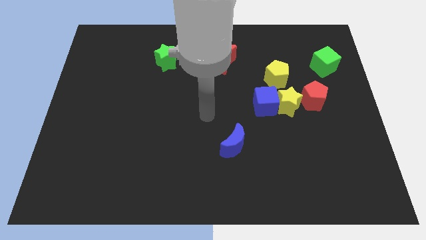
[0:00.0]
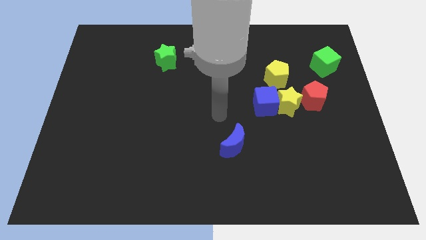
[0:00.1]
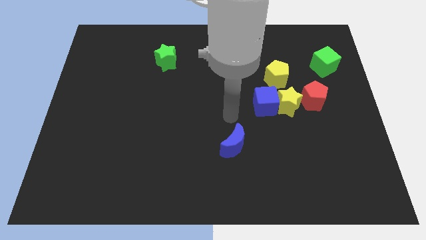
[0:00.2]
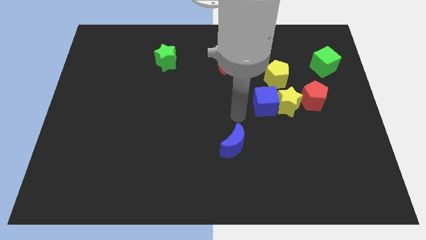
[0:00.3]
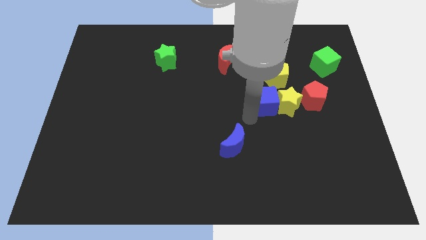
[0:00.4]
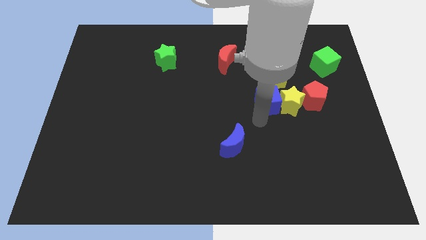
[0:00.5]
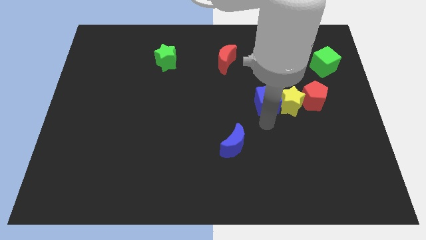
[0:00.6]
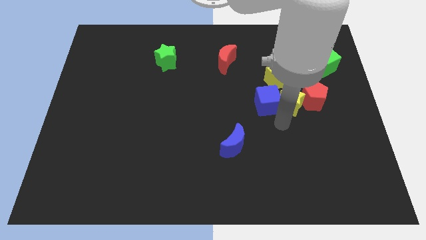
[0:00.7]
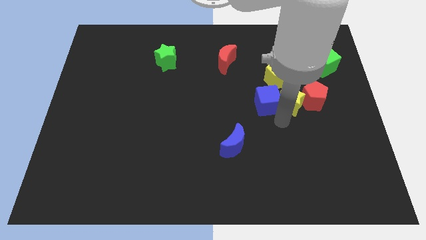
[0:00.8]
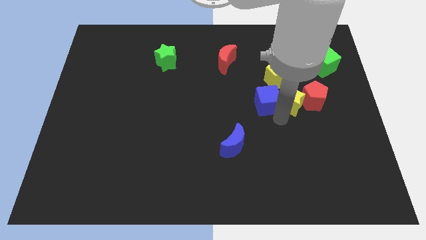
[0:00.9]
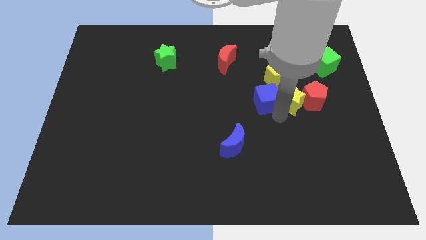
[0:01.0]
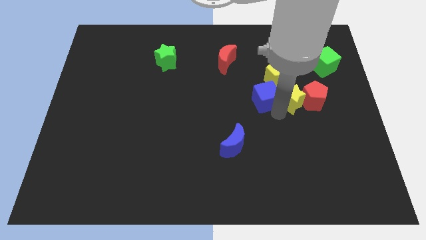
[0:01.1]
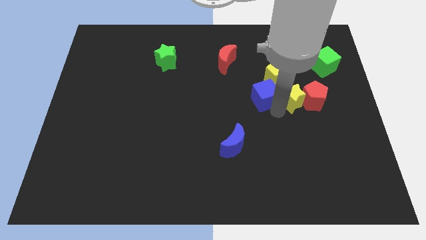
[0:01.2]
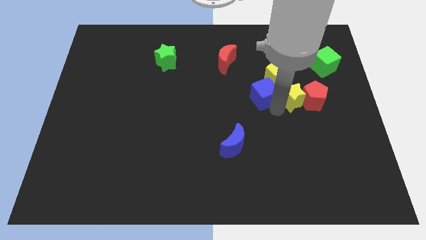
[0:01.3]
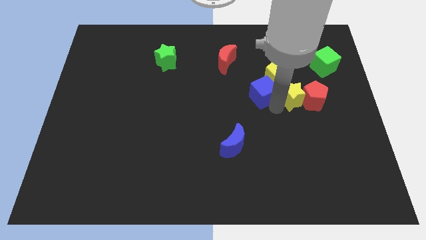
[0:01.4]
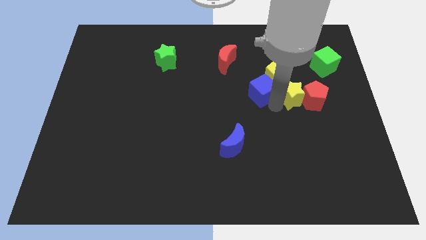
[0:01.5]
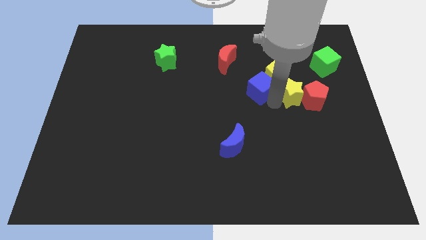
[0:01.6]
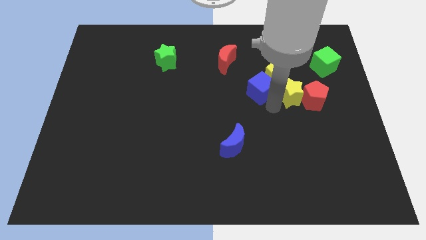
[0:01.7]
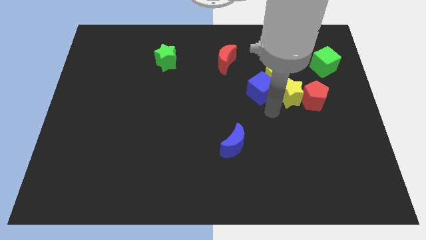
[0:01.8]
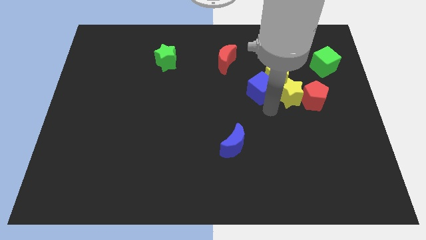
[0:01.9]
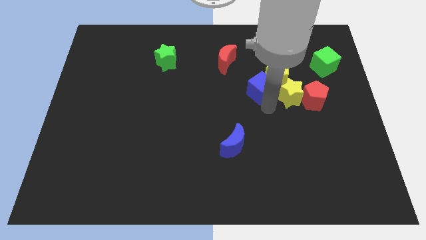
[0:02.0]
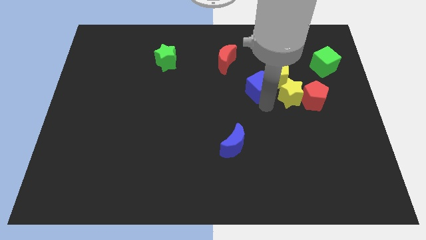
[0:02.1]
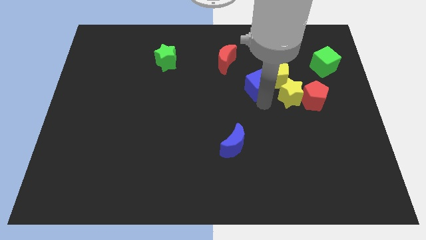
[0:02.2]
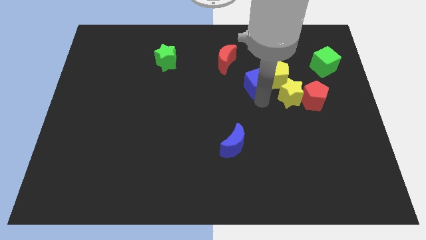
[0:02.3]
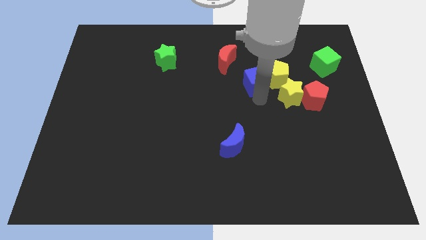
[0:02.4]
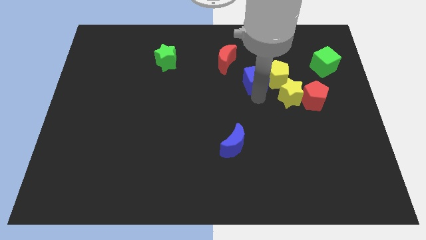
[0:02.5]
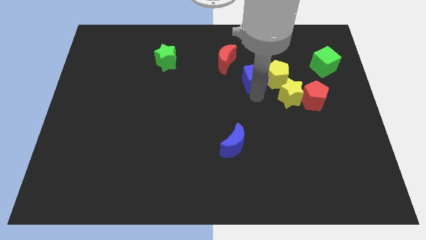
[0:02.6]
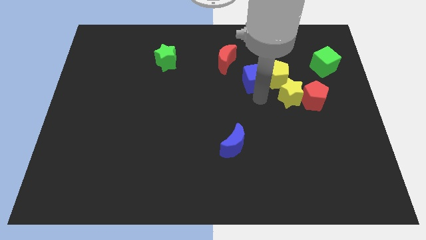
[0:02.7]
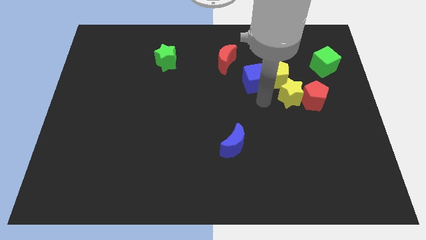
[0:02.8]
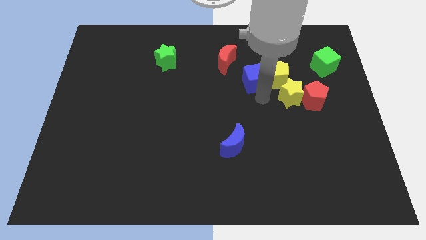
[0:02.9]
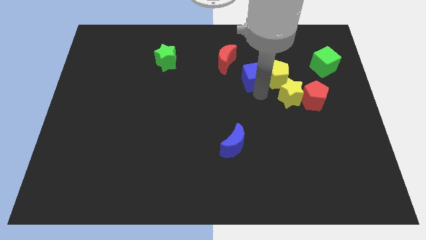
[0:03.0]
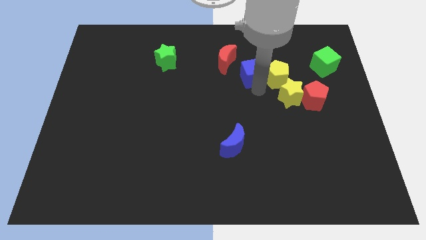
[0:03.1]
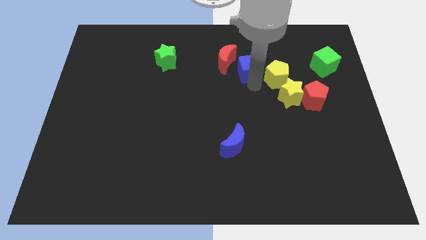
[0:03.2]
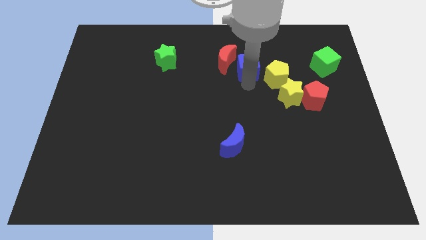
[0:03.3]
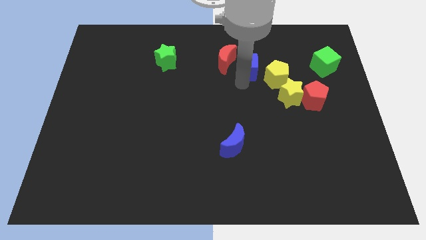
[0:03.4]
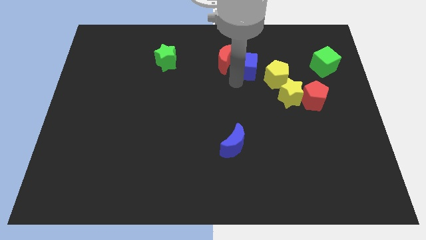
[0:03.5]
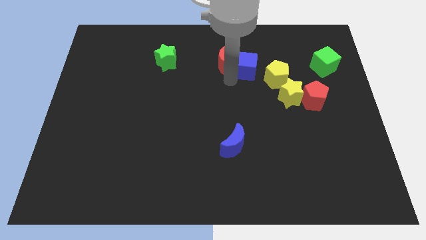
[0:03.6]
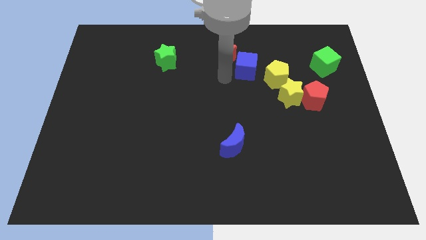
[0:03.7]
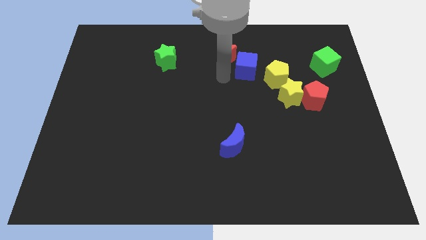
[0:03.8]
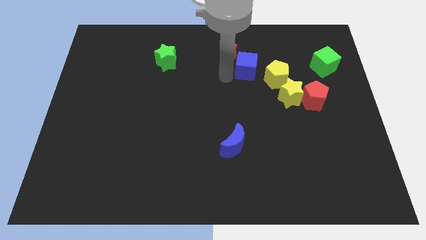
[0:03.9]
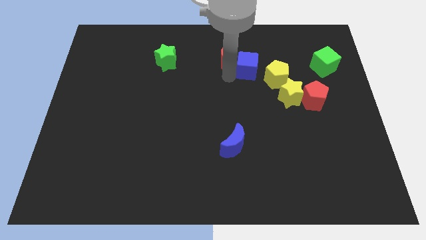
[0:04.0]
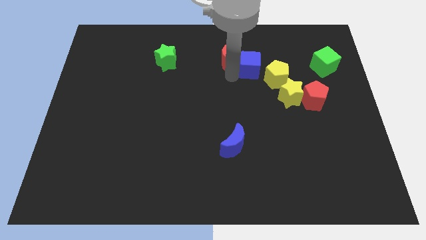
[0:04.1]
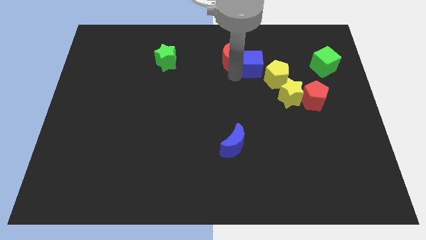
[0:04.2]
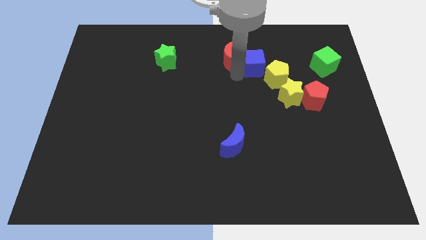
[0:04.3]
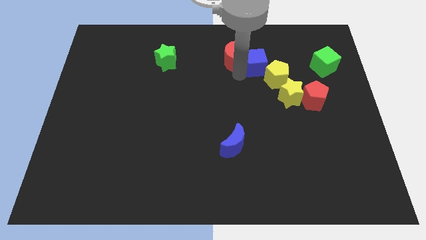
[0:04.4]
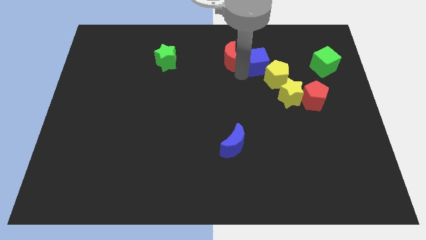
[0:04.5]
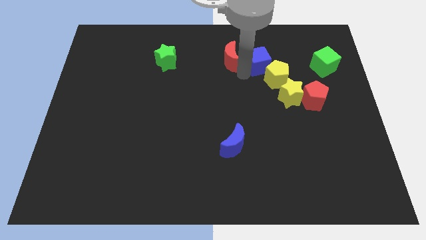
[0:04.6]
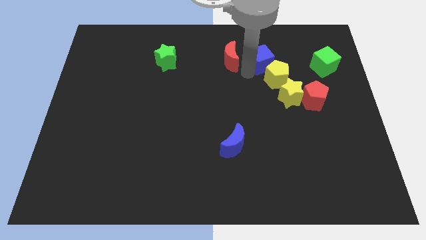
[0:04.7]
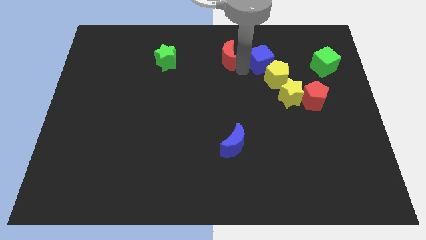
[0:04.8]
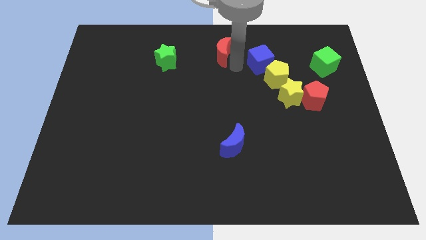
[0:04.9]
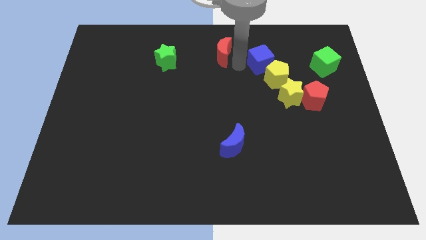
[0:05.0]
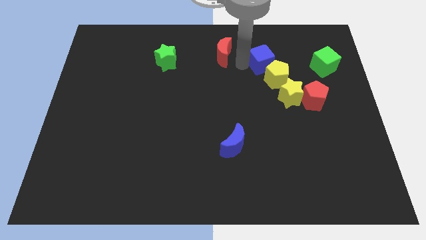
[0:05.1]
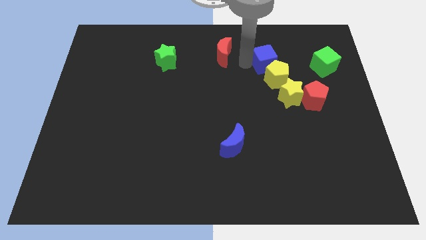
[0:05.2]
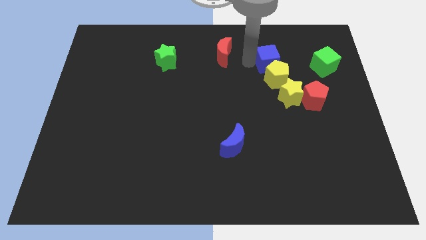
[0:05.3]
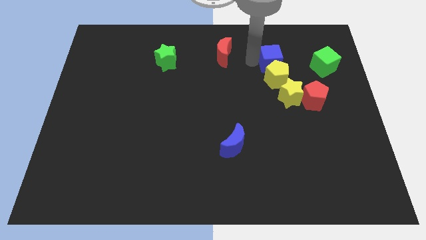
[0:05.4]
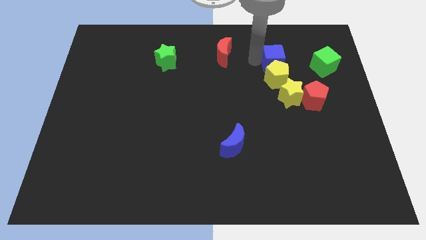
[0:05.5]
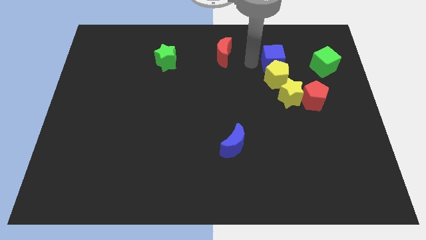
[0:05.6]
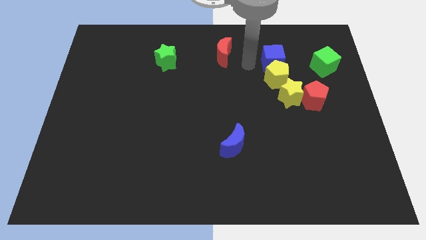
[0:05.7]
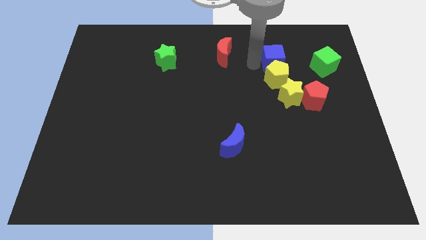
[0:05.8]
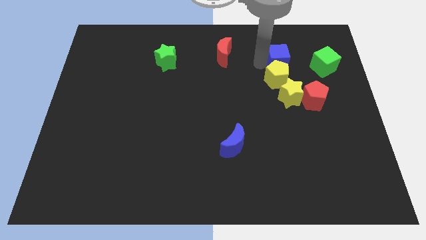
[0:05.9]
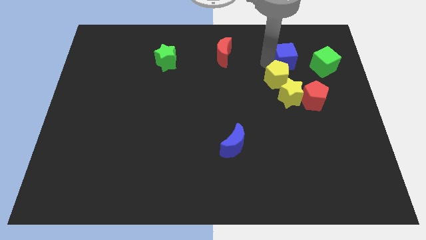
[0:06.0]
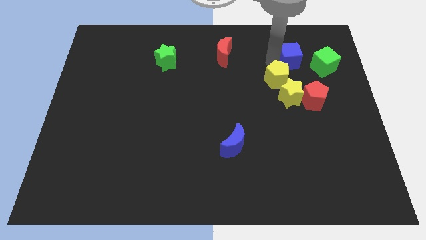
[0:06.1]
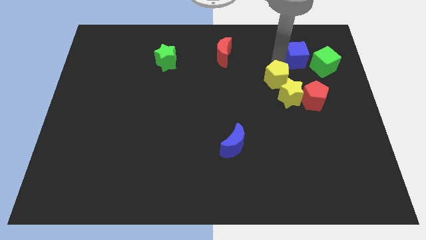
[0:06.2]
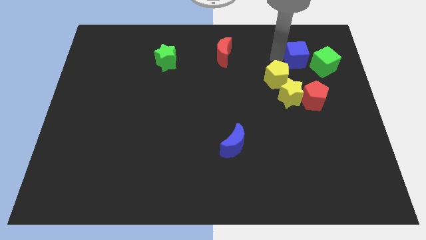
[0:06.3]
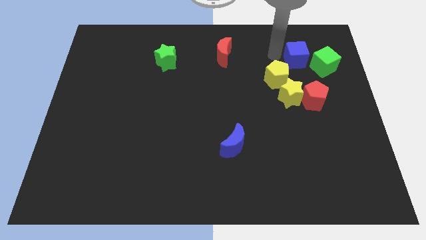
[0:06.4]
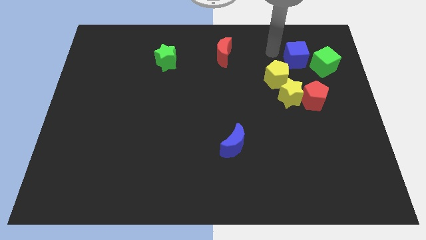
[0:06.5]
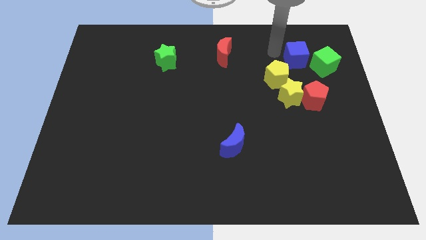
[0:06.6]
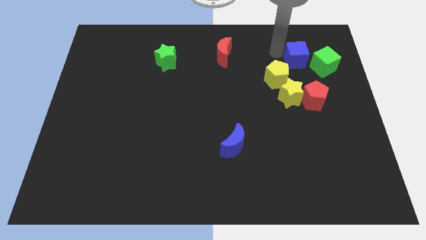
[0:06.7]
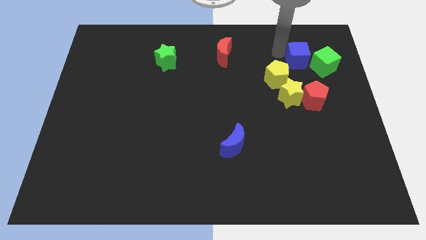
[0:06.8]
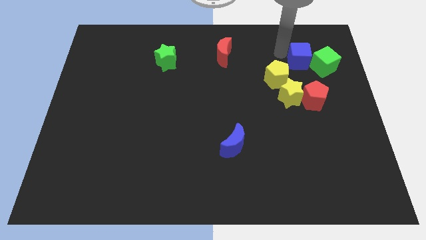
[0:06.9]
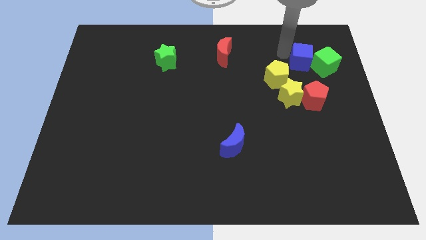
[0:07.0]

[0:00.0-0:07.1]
push the blue cube to the green cube

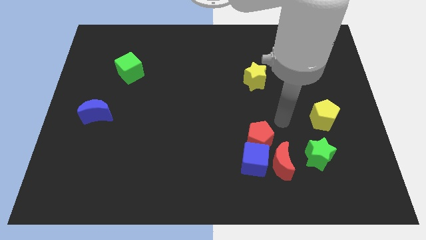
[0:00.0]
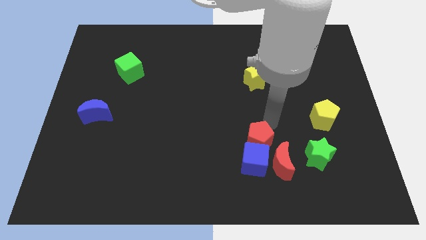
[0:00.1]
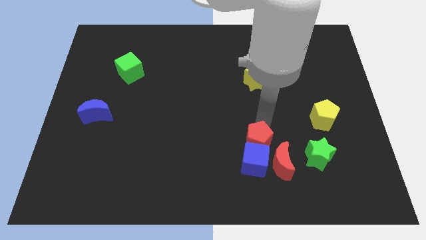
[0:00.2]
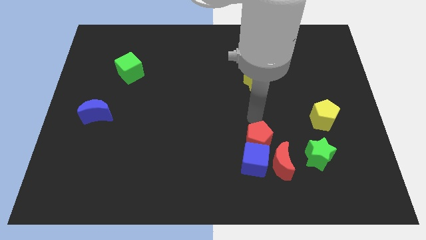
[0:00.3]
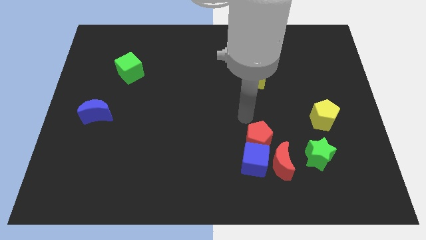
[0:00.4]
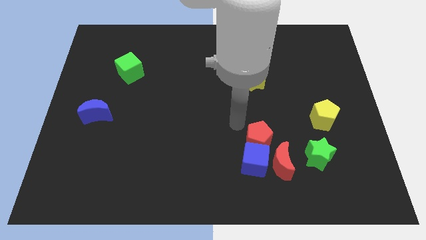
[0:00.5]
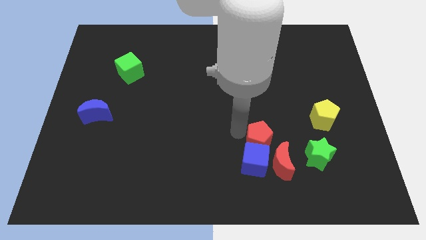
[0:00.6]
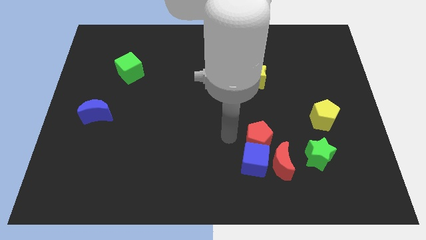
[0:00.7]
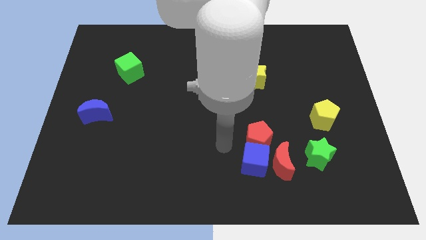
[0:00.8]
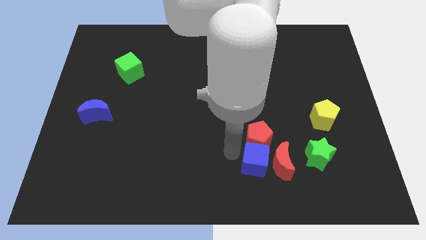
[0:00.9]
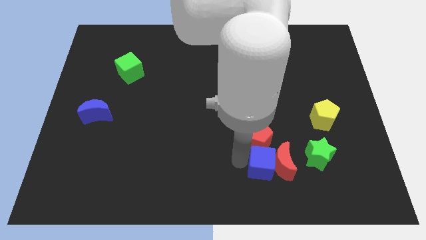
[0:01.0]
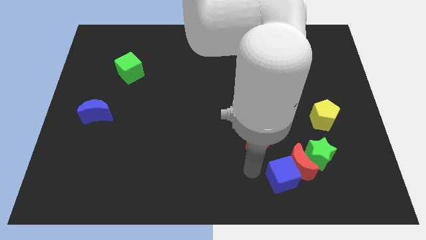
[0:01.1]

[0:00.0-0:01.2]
push the red moon towards the green star
